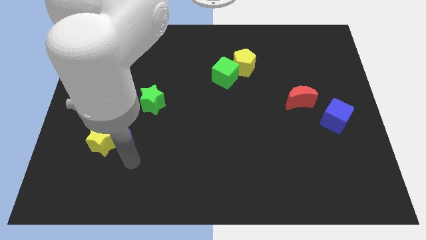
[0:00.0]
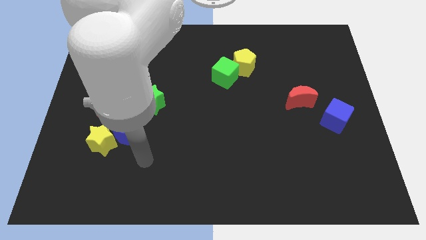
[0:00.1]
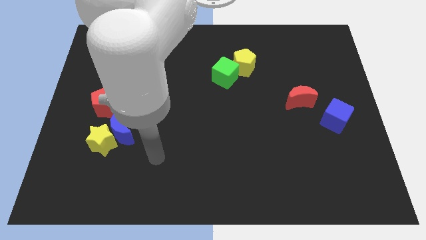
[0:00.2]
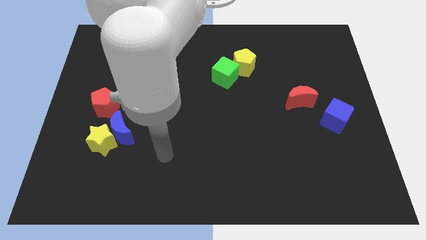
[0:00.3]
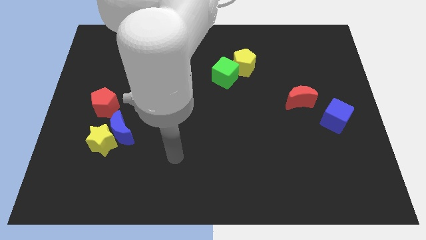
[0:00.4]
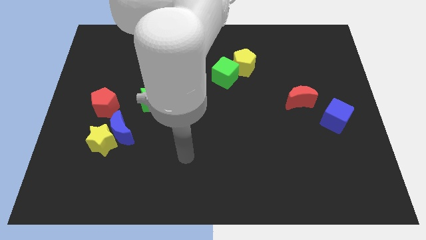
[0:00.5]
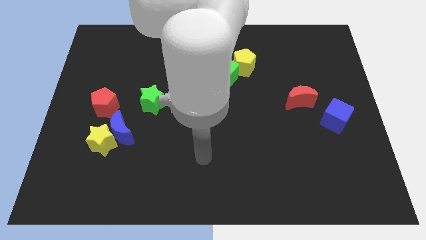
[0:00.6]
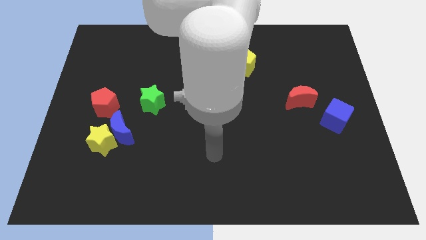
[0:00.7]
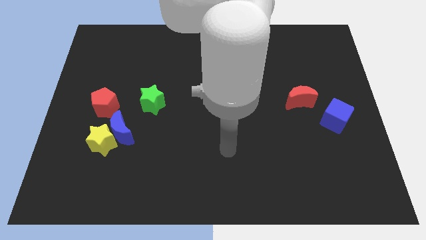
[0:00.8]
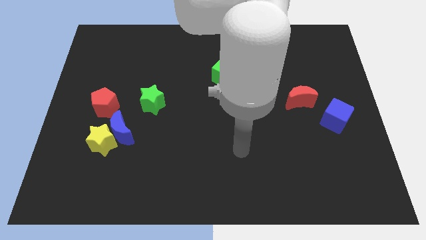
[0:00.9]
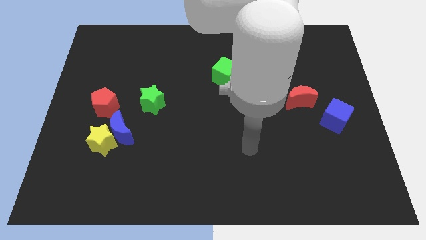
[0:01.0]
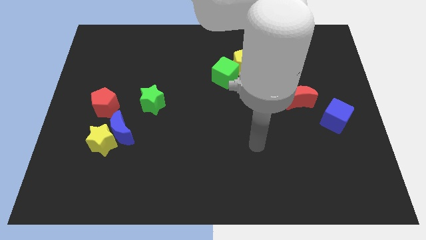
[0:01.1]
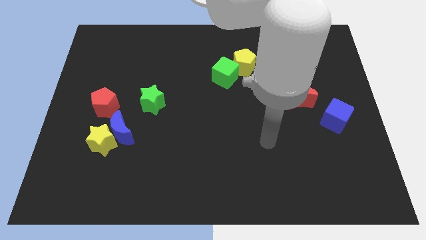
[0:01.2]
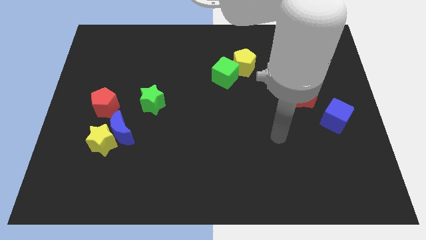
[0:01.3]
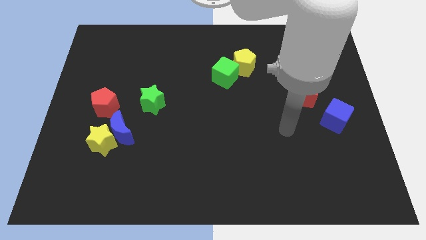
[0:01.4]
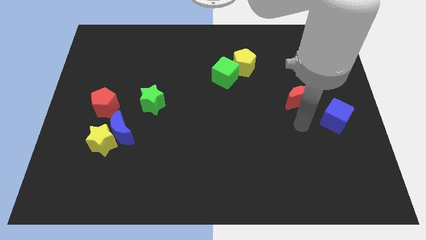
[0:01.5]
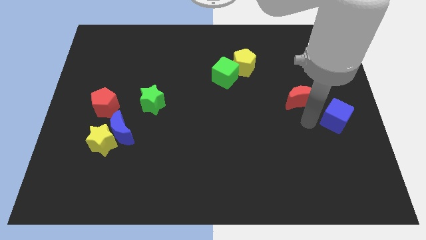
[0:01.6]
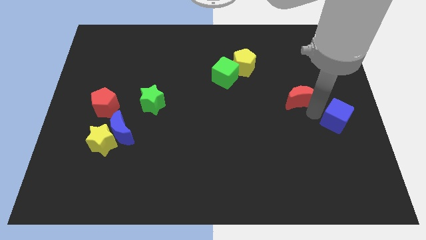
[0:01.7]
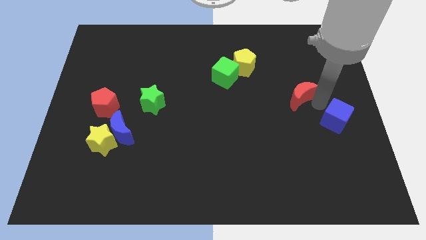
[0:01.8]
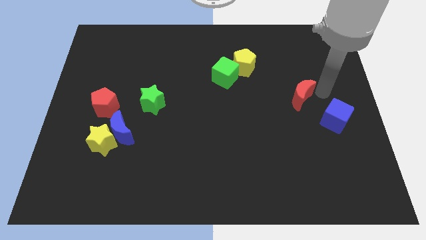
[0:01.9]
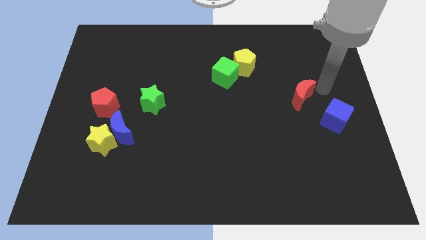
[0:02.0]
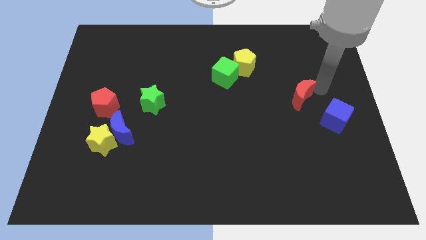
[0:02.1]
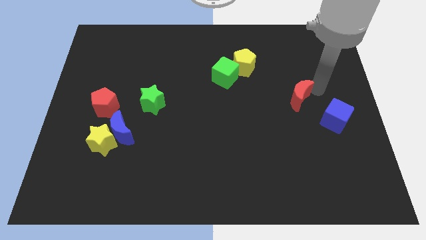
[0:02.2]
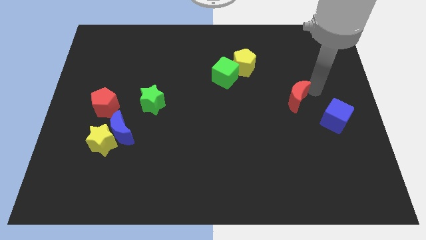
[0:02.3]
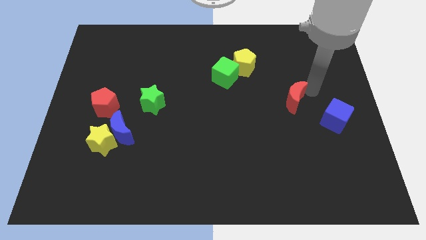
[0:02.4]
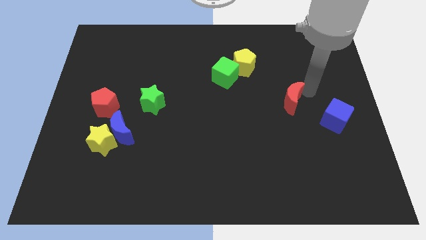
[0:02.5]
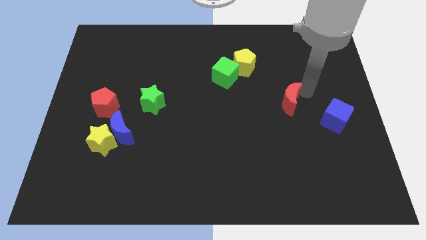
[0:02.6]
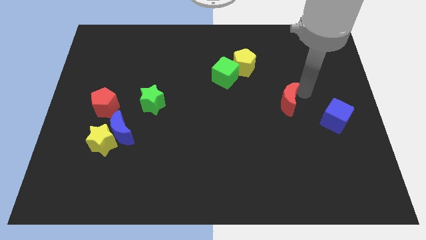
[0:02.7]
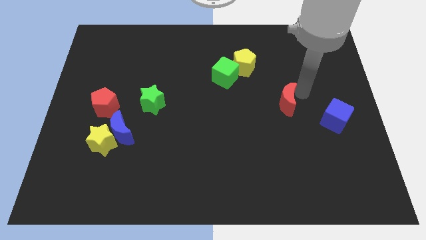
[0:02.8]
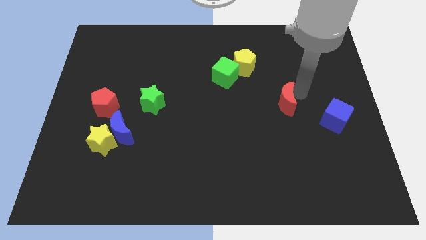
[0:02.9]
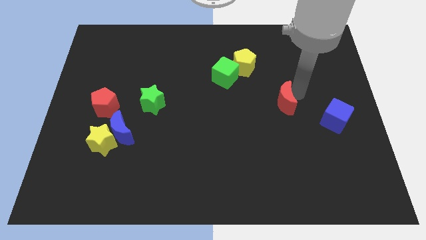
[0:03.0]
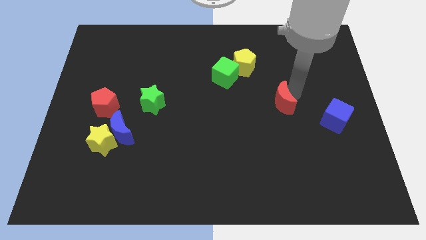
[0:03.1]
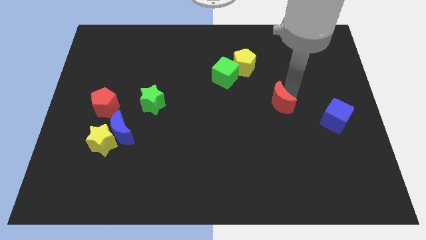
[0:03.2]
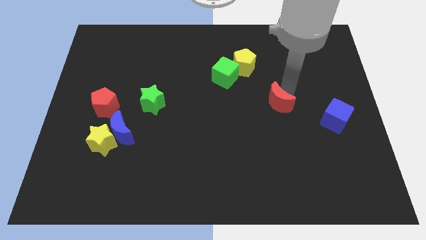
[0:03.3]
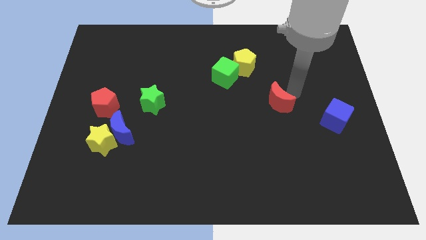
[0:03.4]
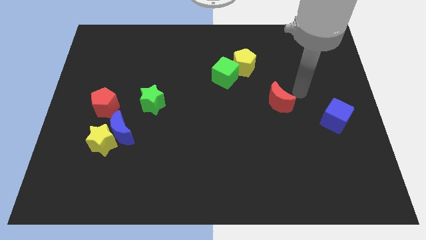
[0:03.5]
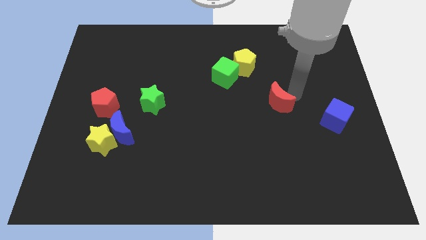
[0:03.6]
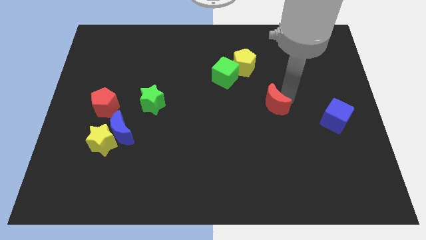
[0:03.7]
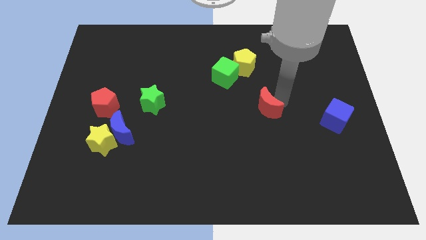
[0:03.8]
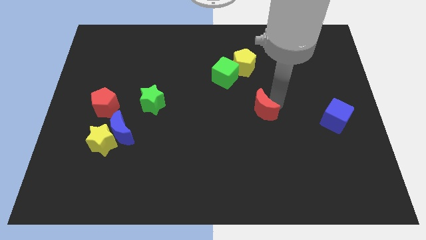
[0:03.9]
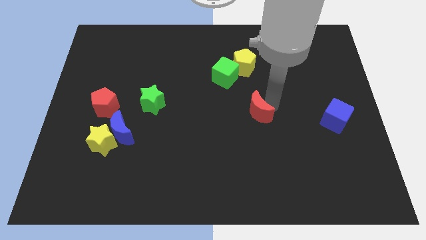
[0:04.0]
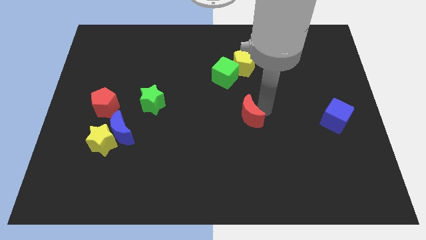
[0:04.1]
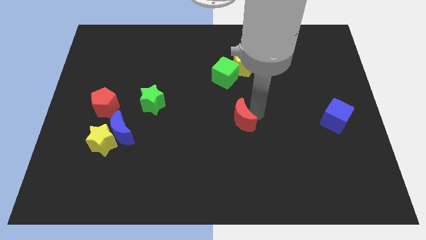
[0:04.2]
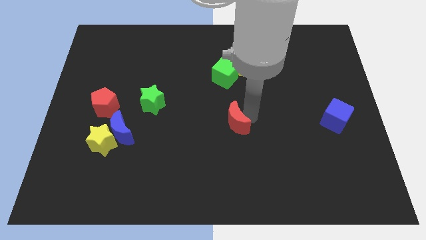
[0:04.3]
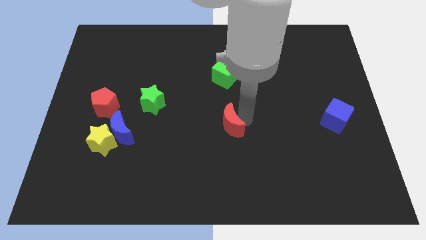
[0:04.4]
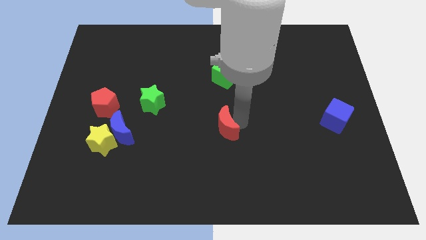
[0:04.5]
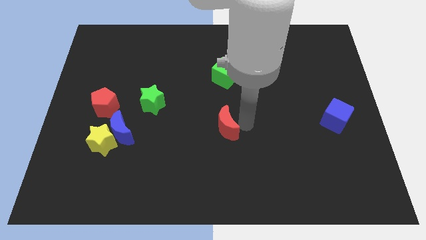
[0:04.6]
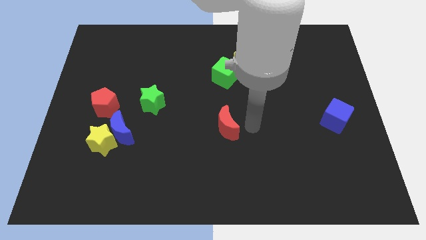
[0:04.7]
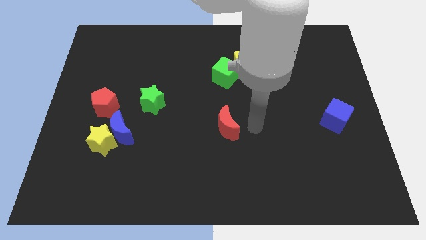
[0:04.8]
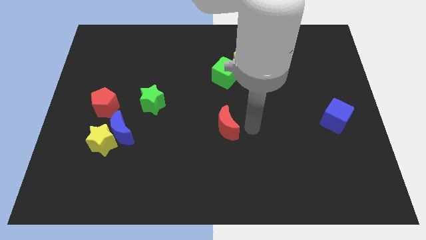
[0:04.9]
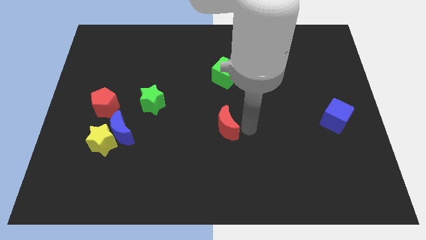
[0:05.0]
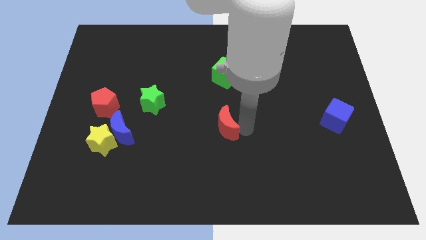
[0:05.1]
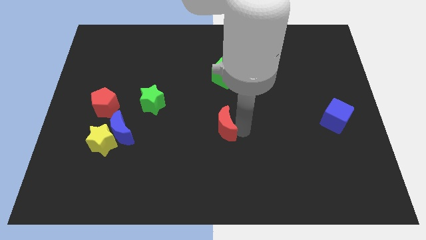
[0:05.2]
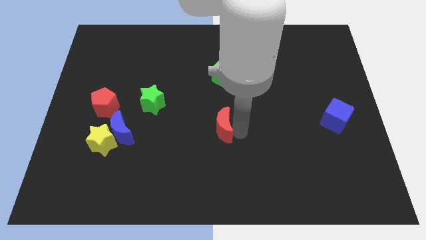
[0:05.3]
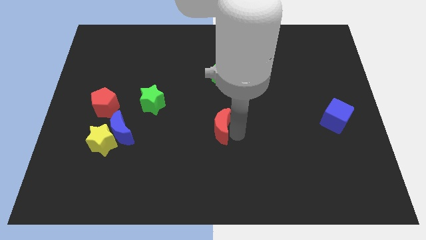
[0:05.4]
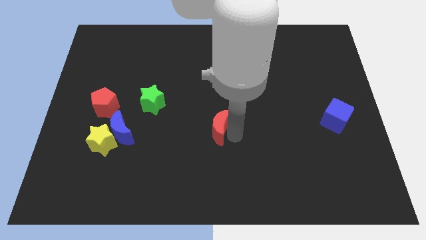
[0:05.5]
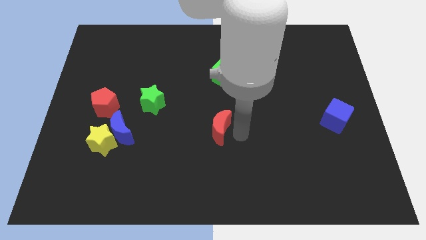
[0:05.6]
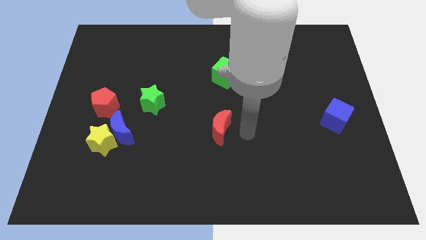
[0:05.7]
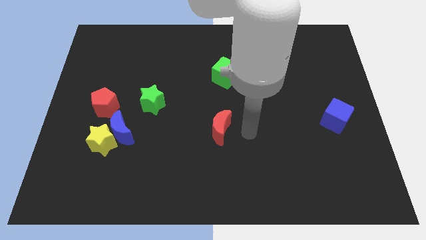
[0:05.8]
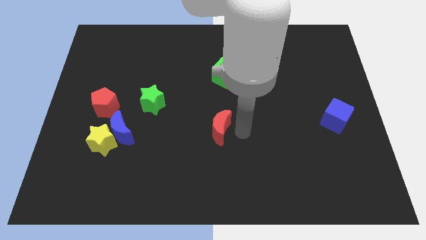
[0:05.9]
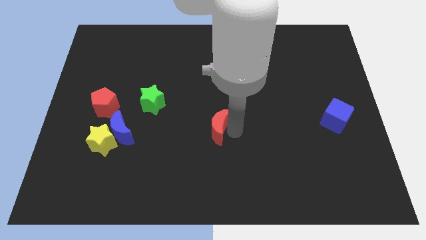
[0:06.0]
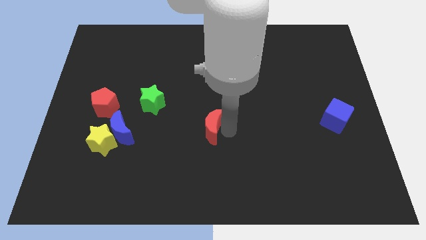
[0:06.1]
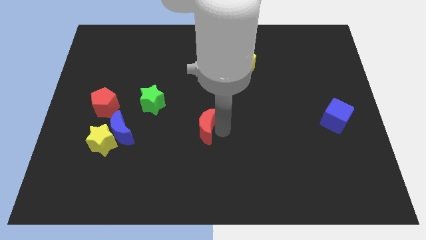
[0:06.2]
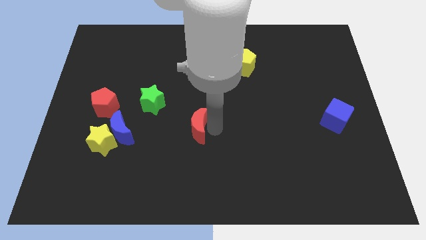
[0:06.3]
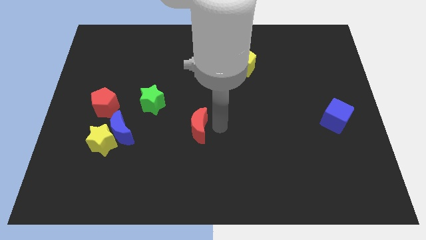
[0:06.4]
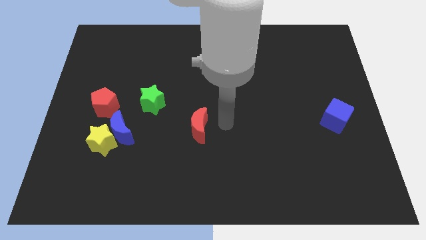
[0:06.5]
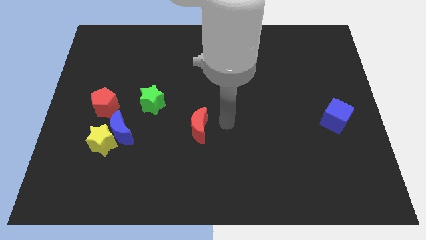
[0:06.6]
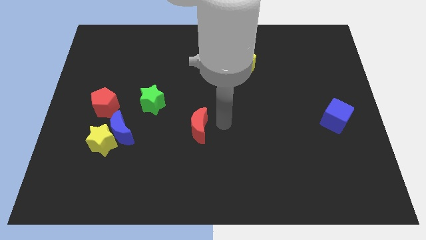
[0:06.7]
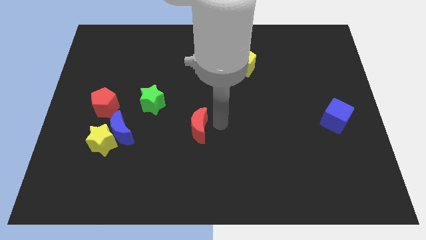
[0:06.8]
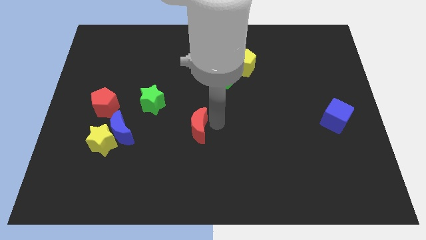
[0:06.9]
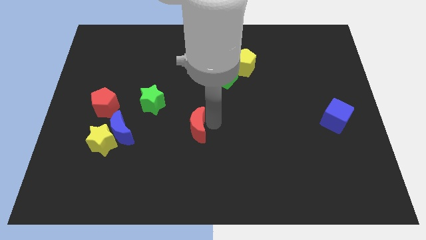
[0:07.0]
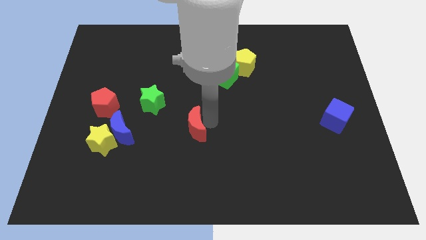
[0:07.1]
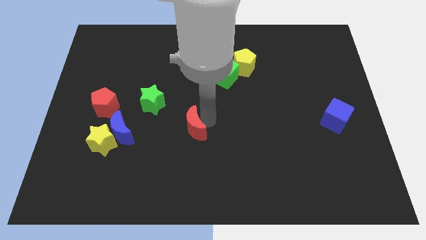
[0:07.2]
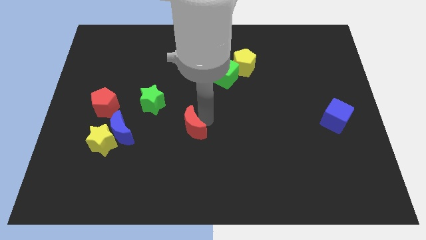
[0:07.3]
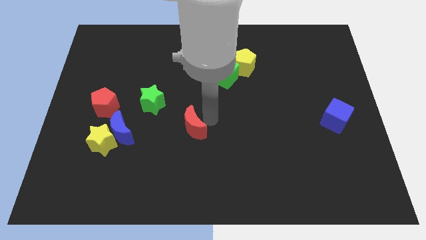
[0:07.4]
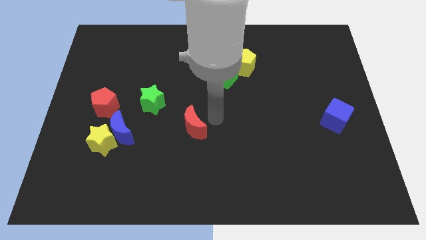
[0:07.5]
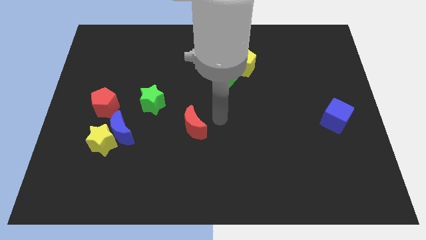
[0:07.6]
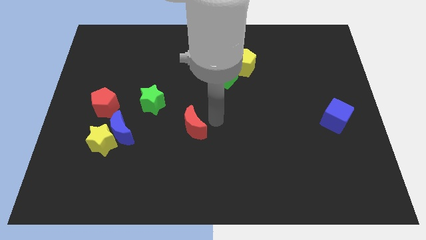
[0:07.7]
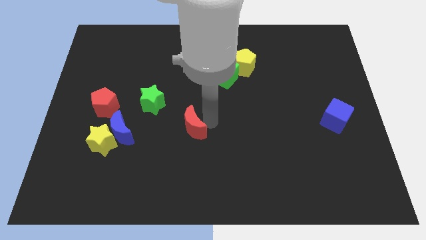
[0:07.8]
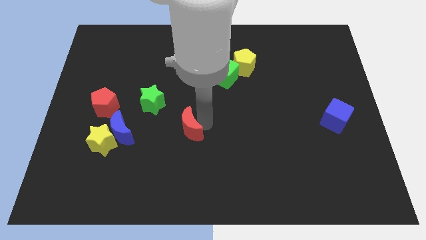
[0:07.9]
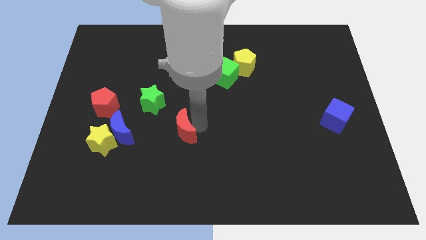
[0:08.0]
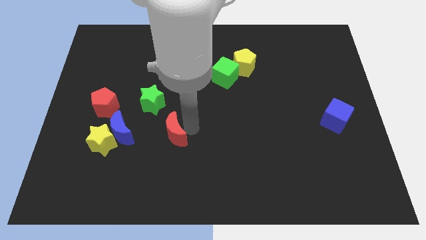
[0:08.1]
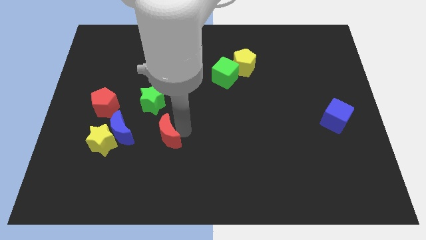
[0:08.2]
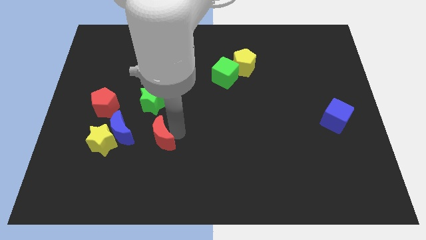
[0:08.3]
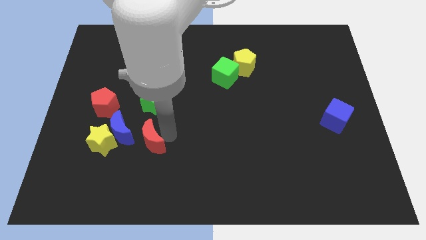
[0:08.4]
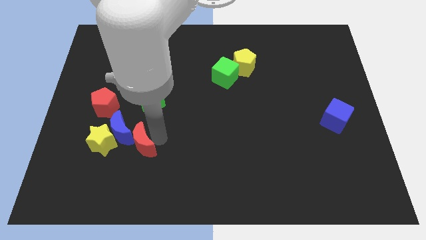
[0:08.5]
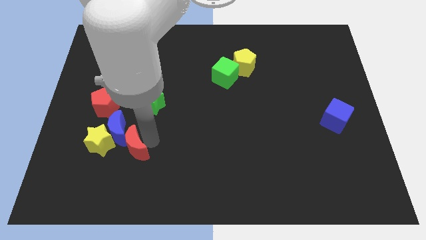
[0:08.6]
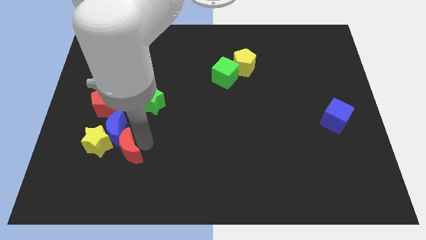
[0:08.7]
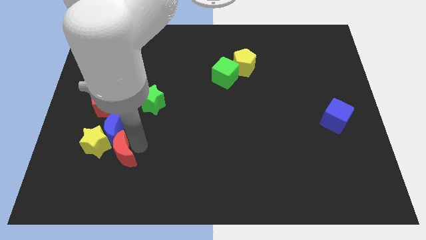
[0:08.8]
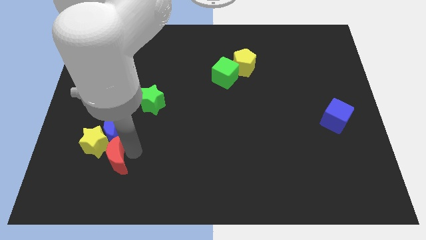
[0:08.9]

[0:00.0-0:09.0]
put the red moon towards the yellow star
